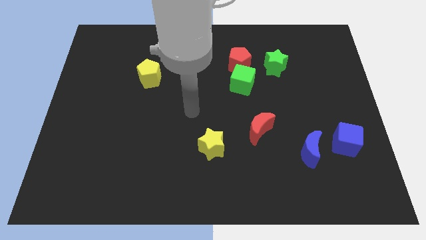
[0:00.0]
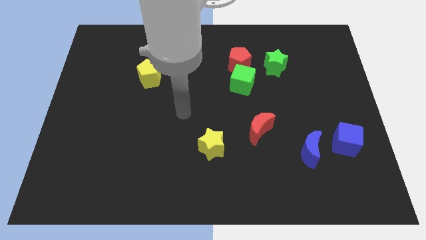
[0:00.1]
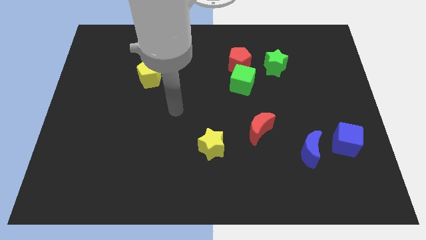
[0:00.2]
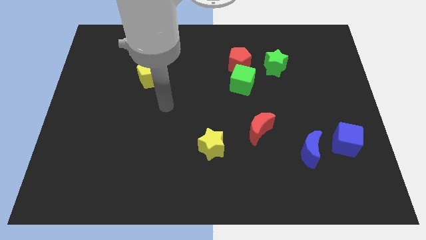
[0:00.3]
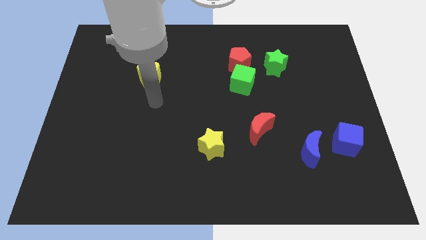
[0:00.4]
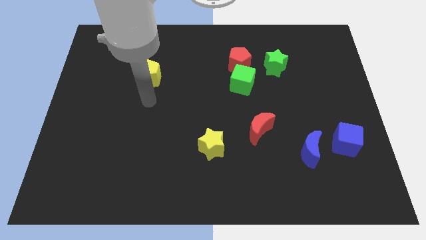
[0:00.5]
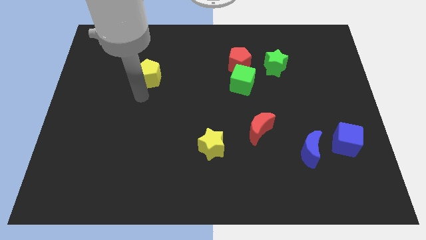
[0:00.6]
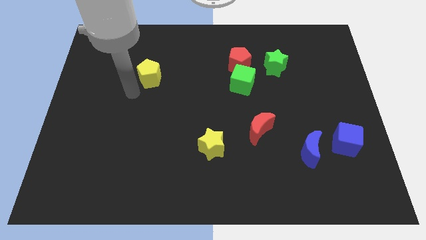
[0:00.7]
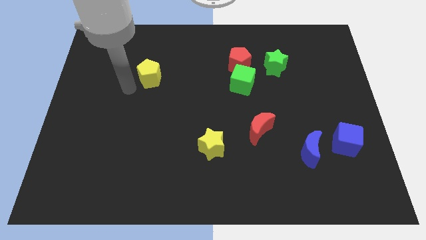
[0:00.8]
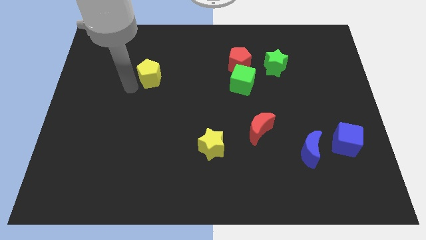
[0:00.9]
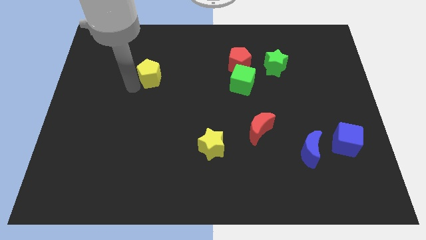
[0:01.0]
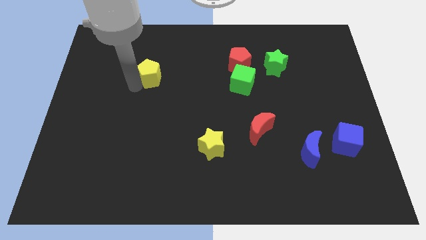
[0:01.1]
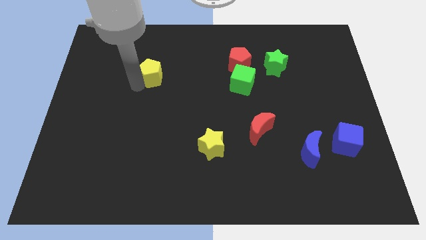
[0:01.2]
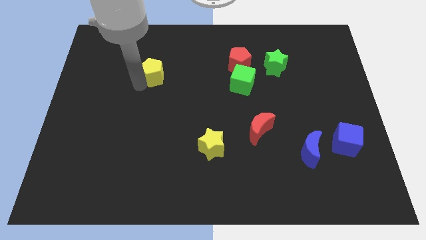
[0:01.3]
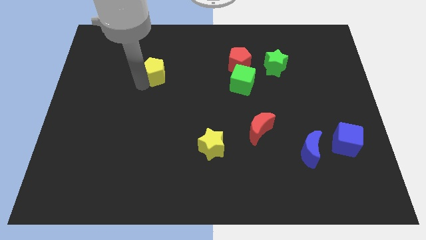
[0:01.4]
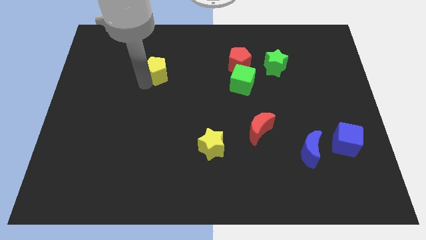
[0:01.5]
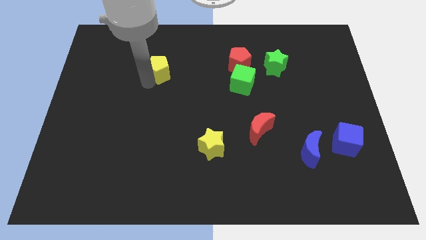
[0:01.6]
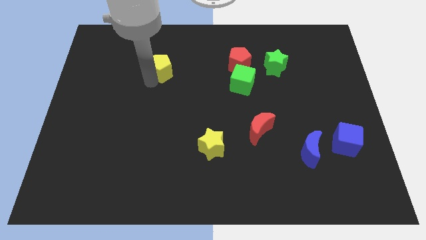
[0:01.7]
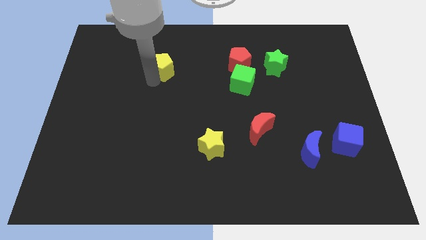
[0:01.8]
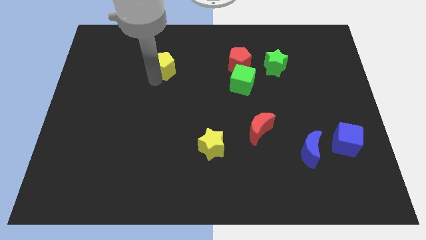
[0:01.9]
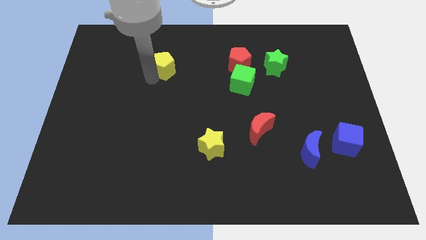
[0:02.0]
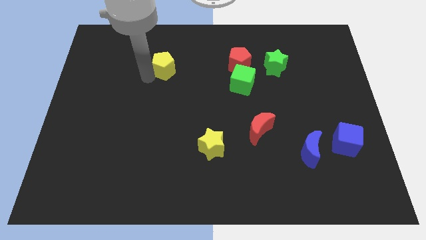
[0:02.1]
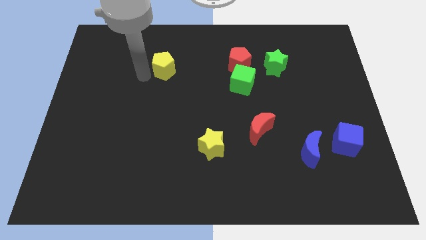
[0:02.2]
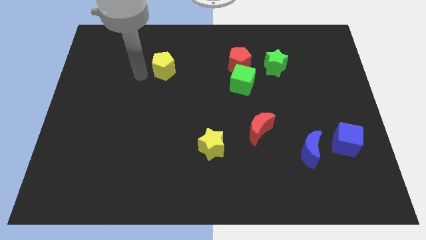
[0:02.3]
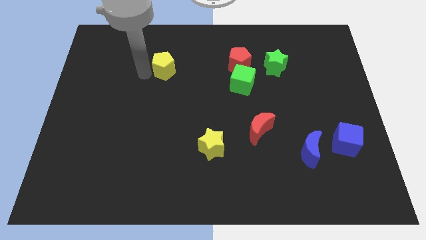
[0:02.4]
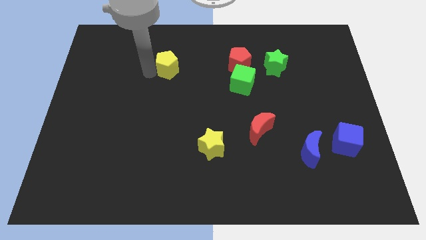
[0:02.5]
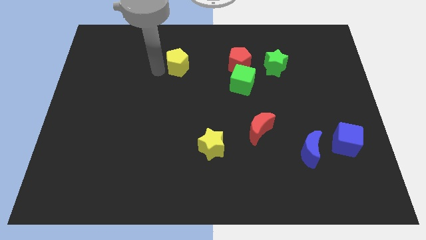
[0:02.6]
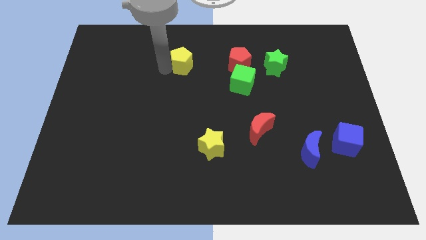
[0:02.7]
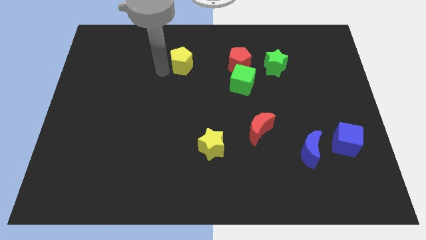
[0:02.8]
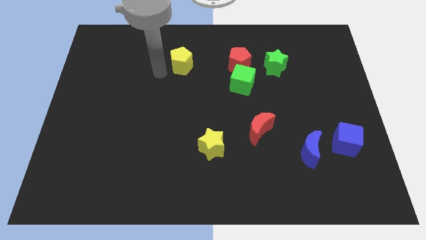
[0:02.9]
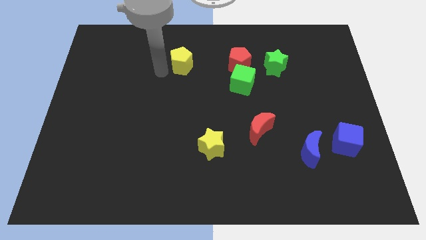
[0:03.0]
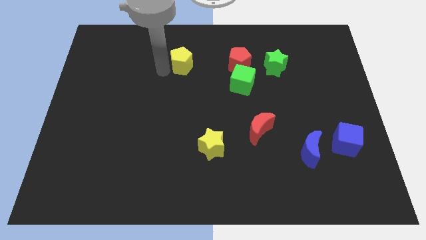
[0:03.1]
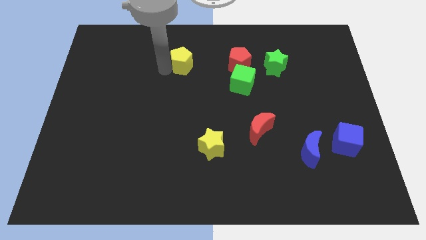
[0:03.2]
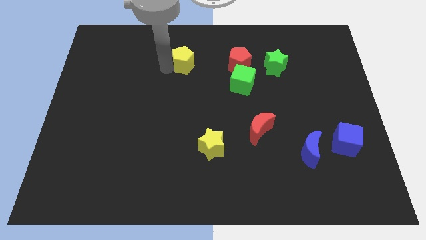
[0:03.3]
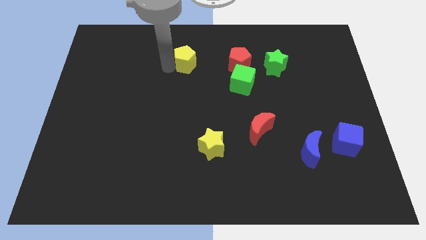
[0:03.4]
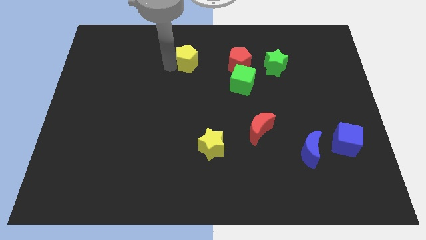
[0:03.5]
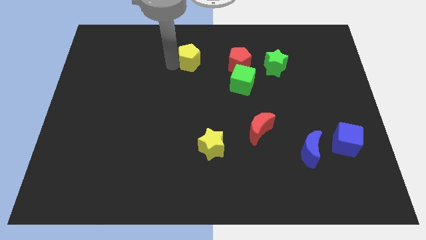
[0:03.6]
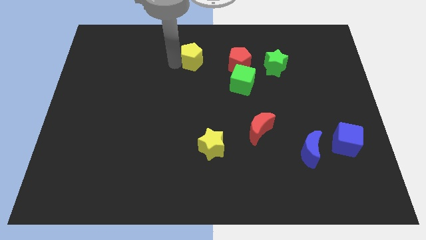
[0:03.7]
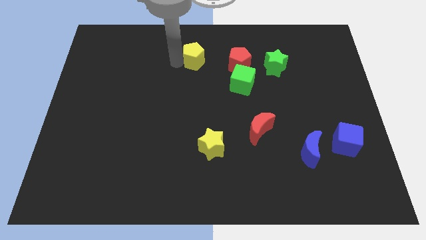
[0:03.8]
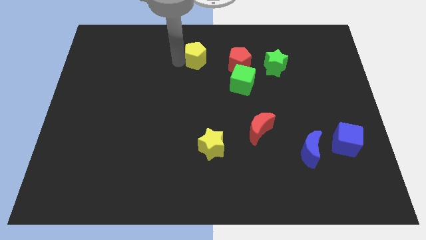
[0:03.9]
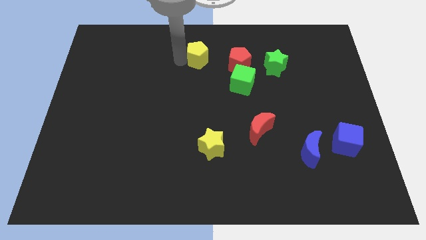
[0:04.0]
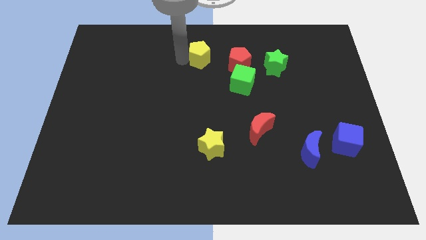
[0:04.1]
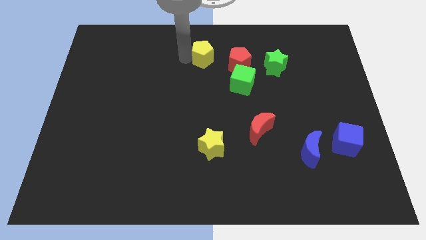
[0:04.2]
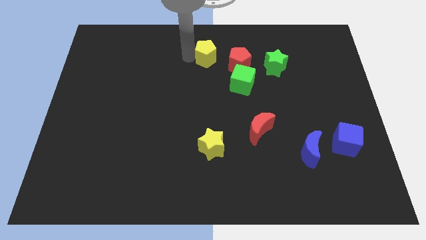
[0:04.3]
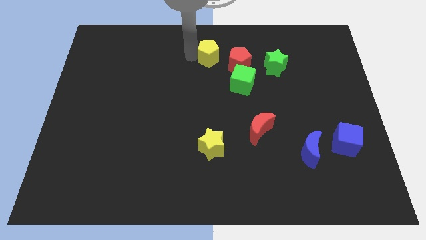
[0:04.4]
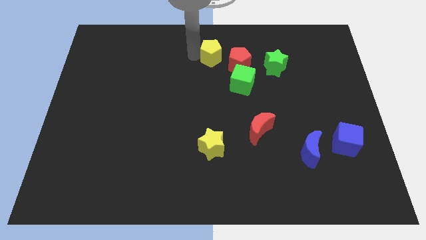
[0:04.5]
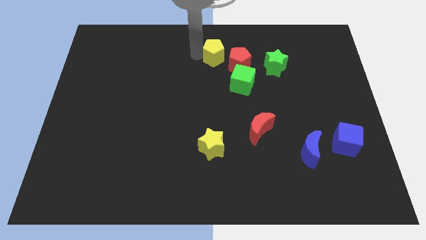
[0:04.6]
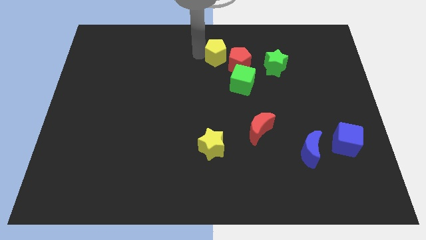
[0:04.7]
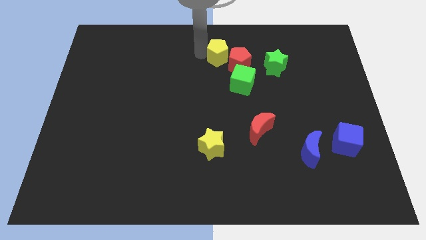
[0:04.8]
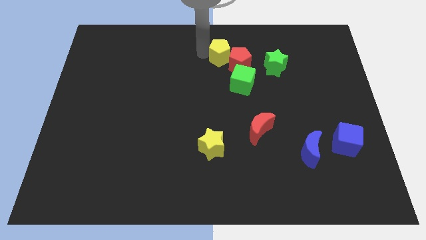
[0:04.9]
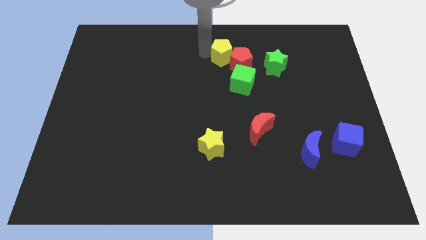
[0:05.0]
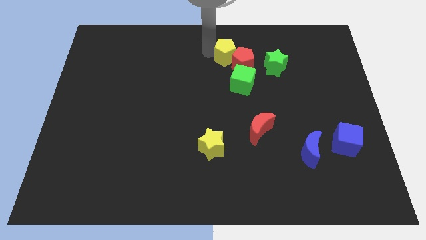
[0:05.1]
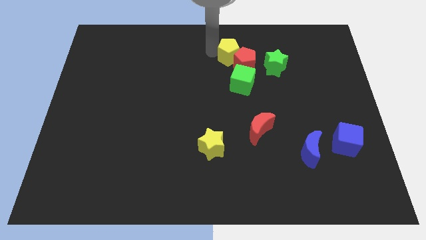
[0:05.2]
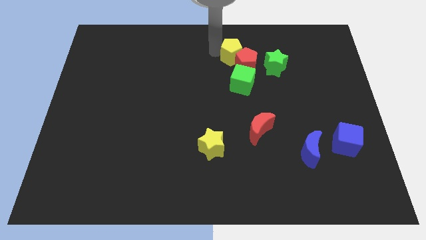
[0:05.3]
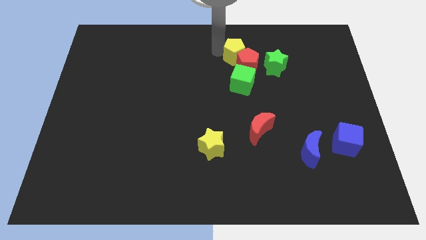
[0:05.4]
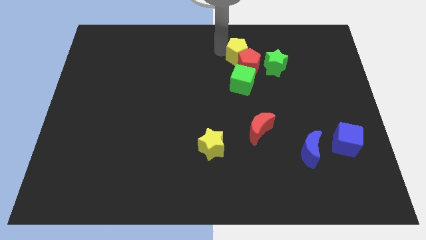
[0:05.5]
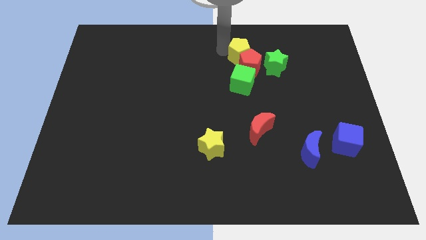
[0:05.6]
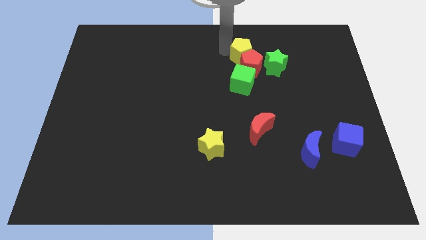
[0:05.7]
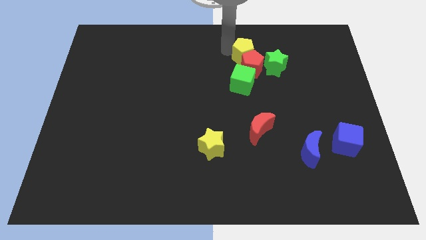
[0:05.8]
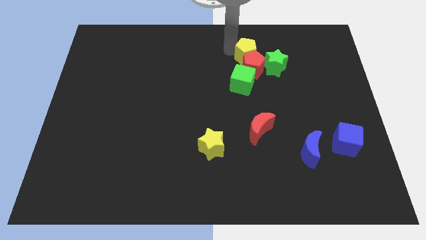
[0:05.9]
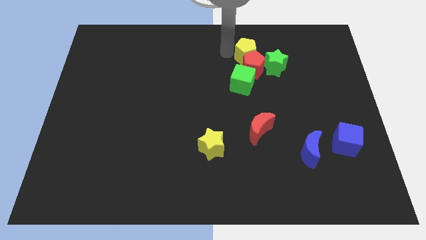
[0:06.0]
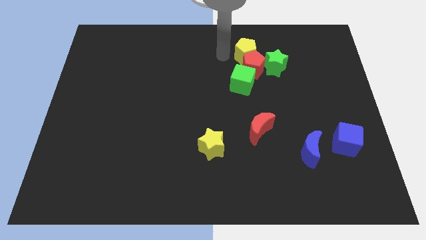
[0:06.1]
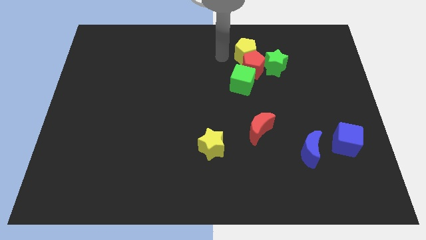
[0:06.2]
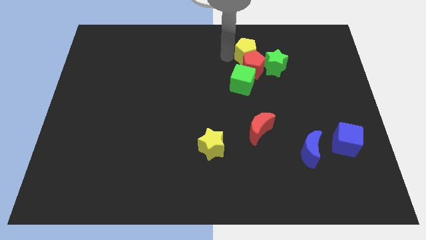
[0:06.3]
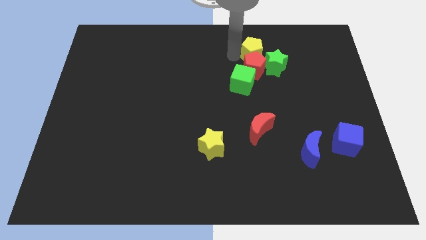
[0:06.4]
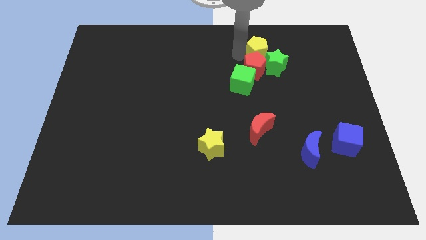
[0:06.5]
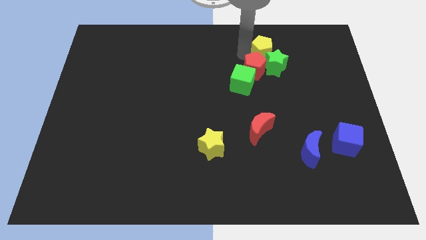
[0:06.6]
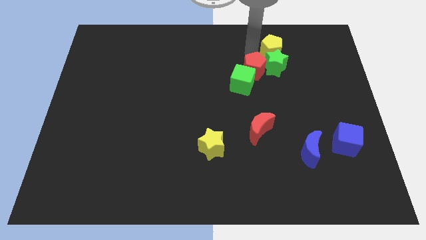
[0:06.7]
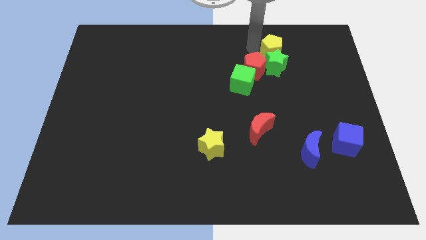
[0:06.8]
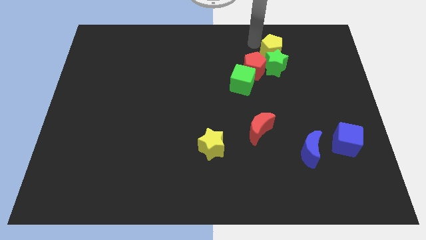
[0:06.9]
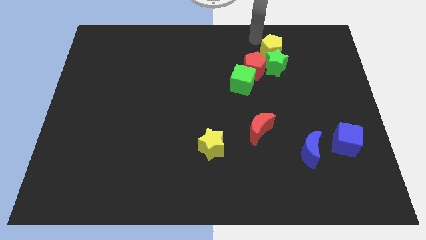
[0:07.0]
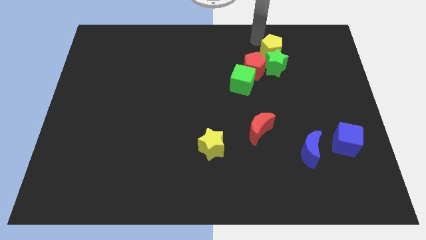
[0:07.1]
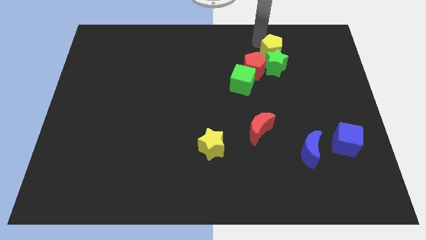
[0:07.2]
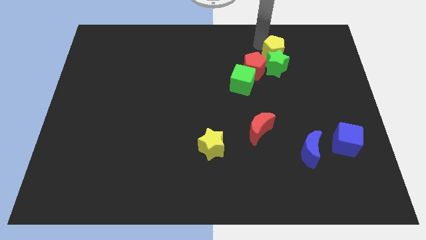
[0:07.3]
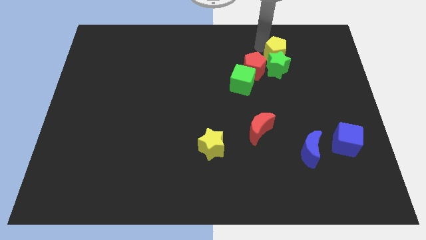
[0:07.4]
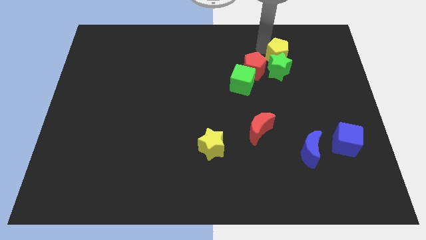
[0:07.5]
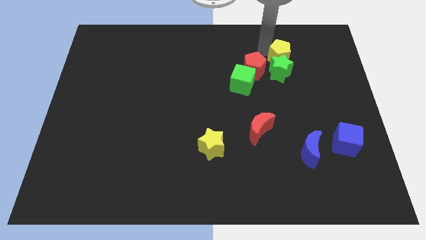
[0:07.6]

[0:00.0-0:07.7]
move the yellow pentagon to the right of the red pentagon
